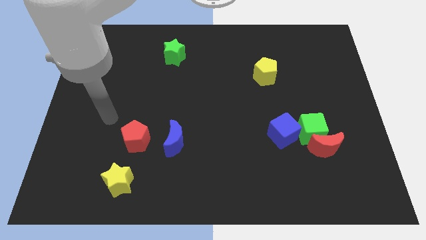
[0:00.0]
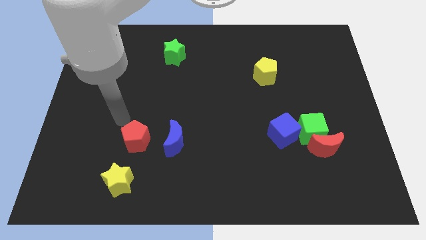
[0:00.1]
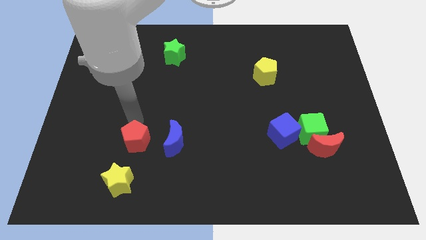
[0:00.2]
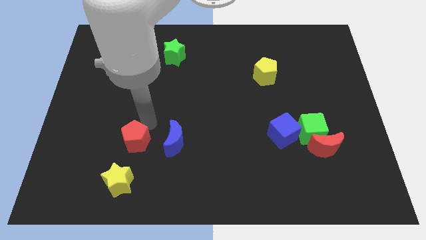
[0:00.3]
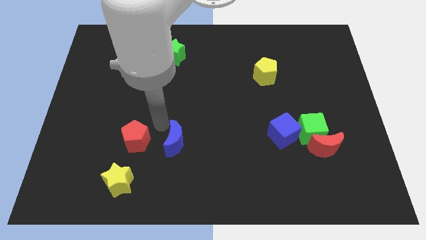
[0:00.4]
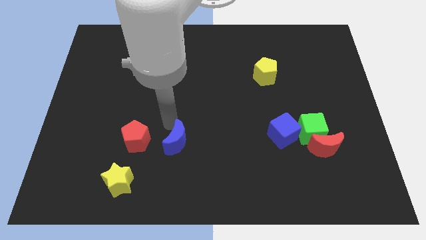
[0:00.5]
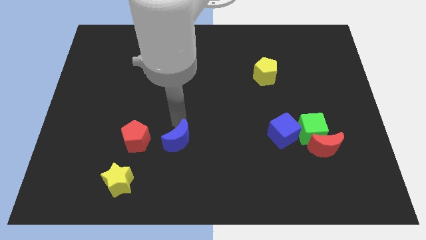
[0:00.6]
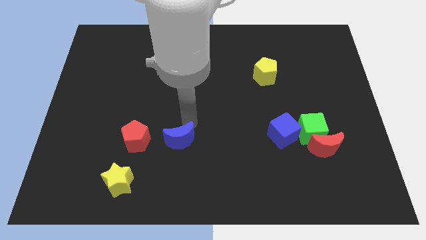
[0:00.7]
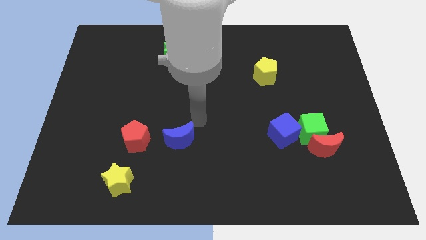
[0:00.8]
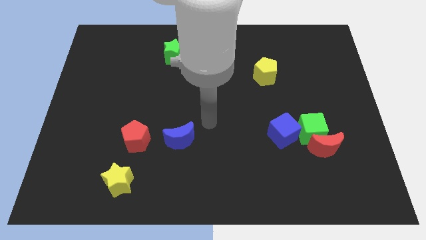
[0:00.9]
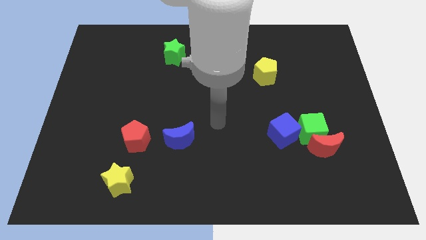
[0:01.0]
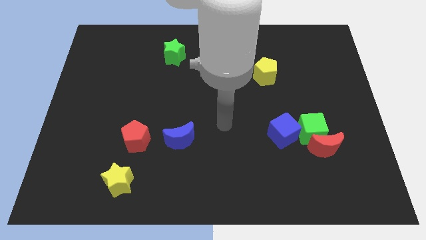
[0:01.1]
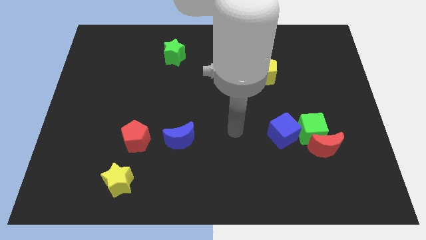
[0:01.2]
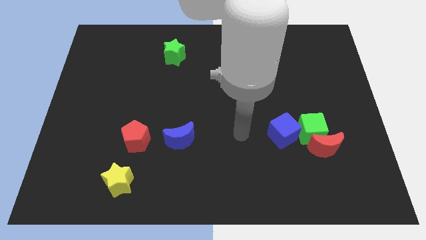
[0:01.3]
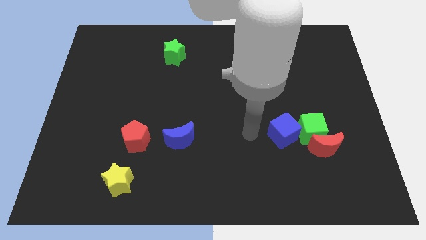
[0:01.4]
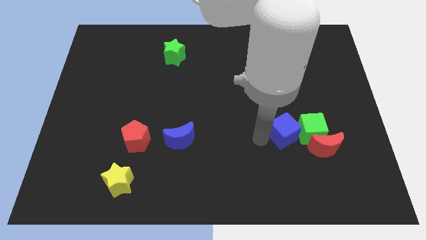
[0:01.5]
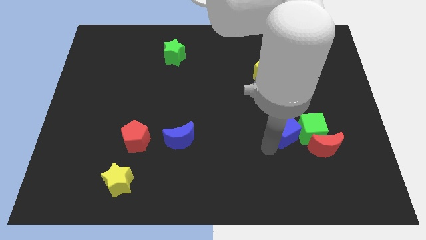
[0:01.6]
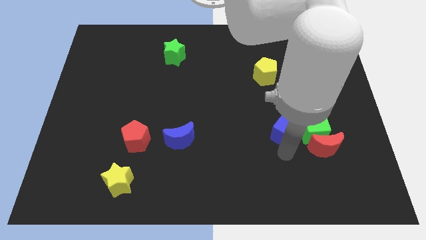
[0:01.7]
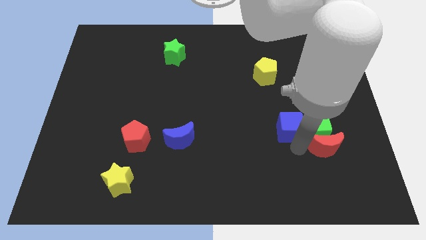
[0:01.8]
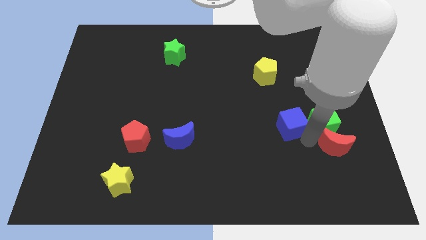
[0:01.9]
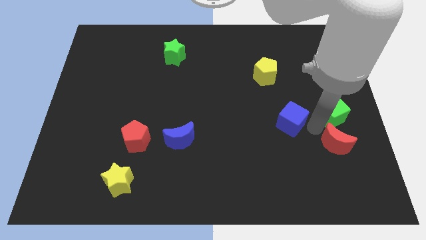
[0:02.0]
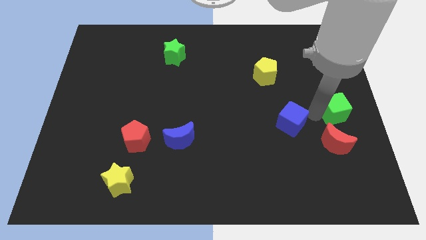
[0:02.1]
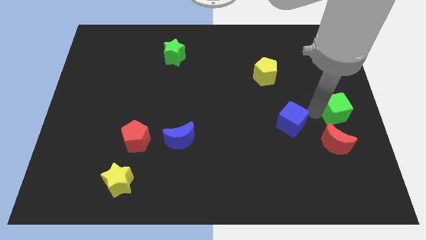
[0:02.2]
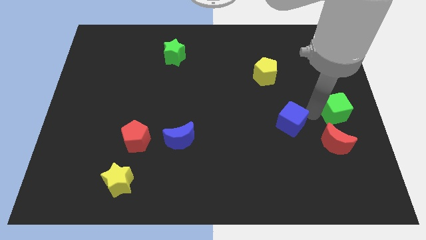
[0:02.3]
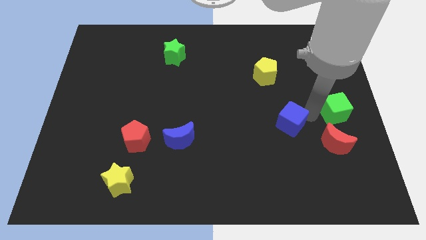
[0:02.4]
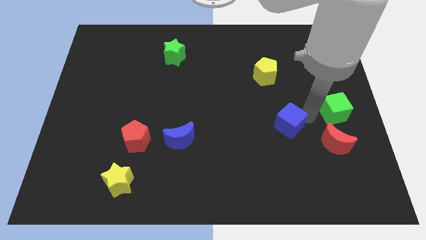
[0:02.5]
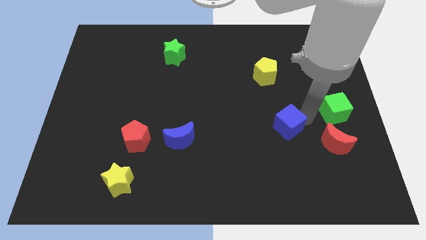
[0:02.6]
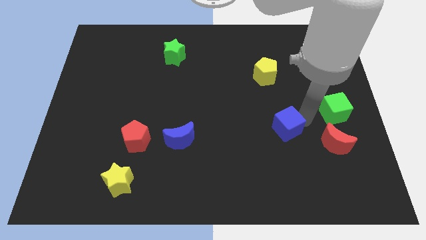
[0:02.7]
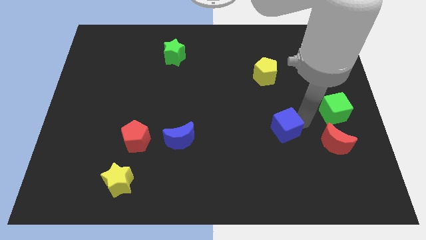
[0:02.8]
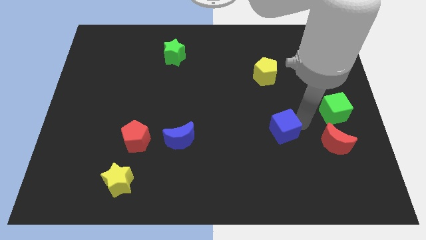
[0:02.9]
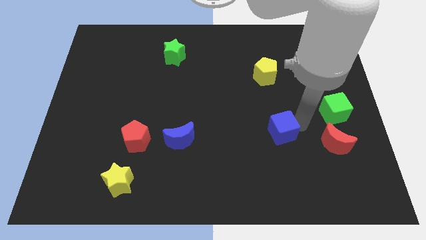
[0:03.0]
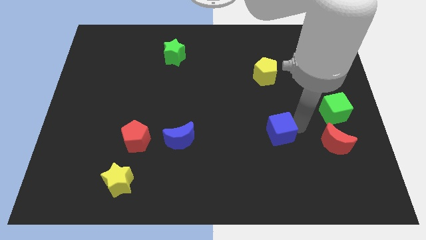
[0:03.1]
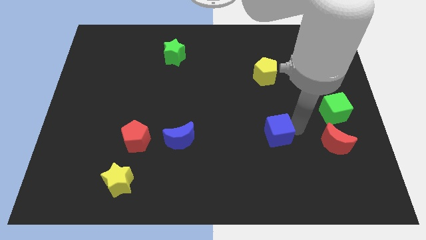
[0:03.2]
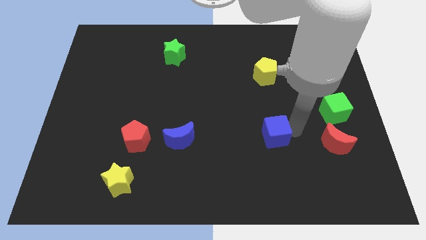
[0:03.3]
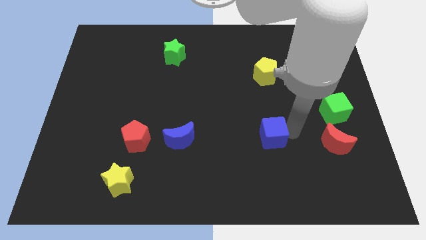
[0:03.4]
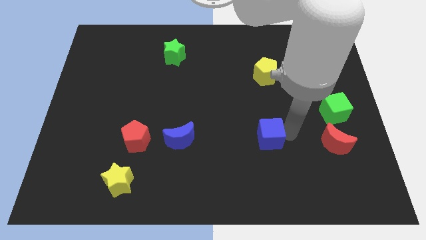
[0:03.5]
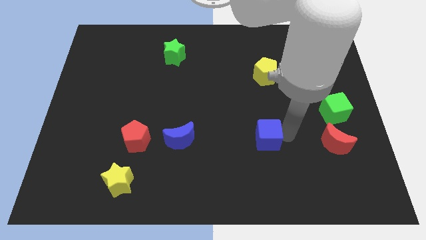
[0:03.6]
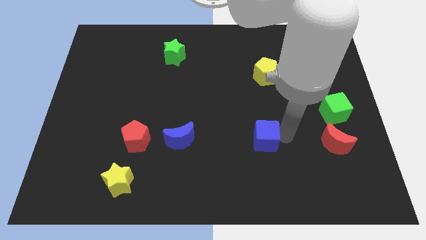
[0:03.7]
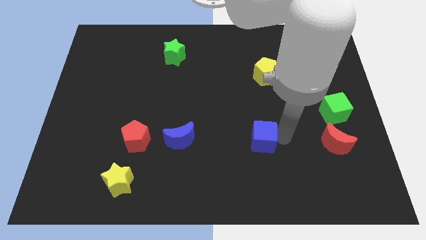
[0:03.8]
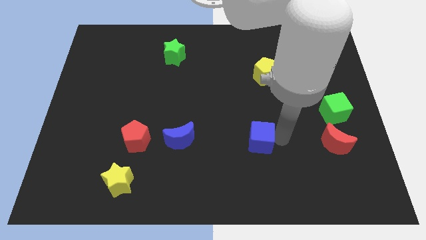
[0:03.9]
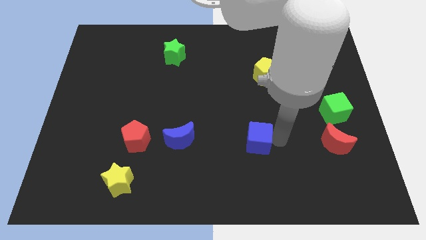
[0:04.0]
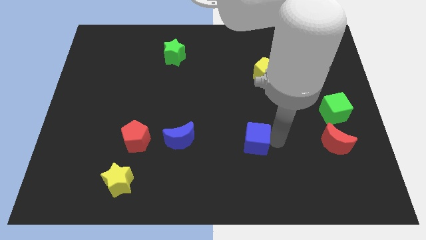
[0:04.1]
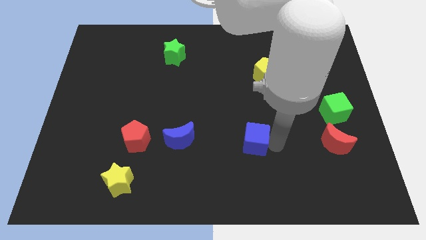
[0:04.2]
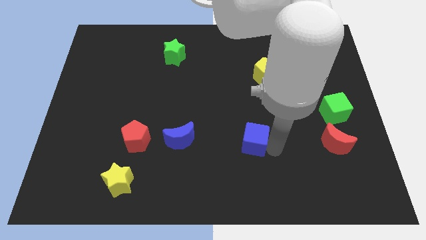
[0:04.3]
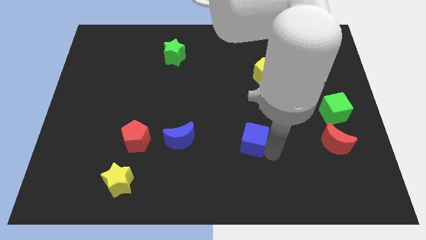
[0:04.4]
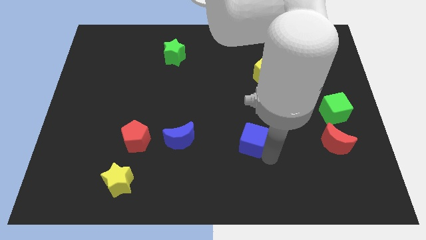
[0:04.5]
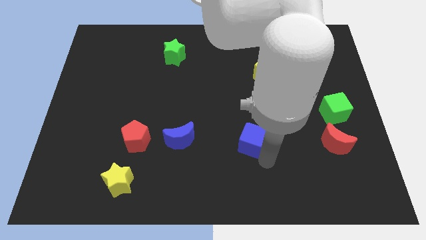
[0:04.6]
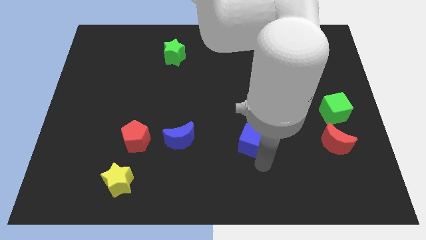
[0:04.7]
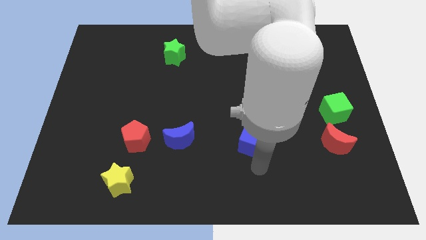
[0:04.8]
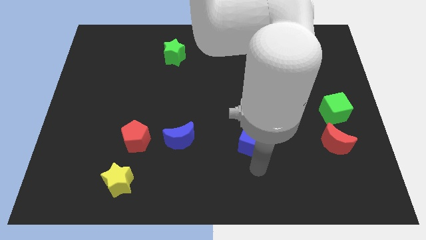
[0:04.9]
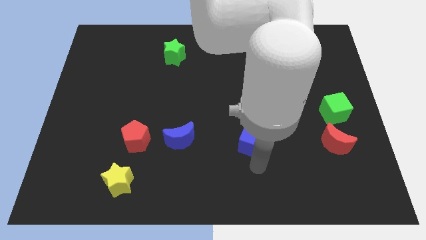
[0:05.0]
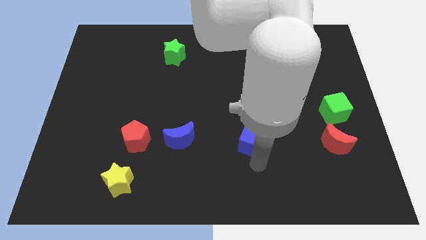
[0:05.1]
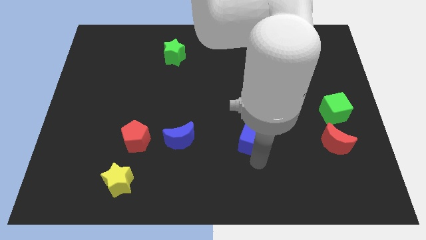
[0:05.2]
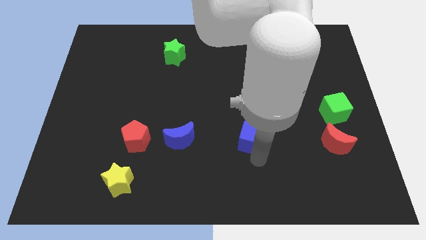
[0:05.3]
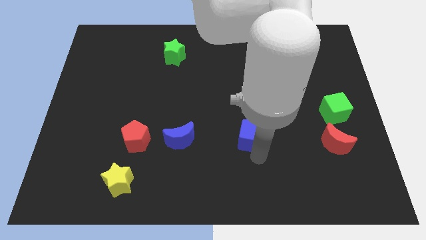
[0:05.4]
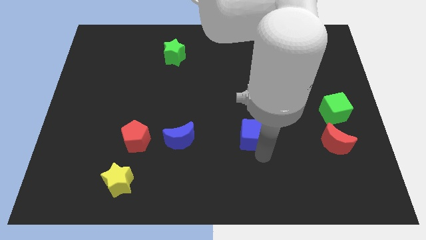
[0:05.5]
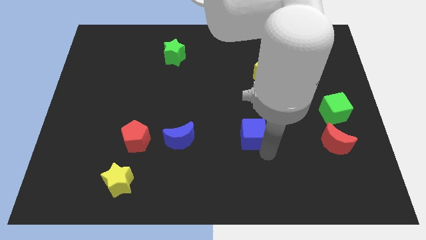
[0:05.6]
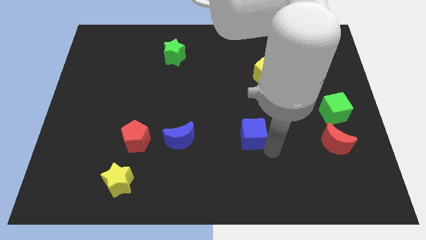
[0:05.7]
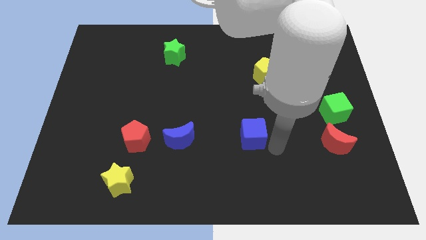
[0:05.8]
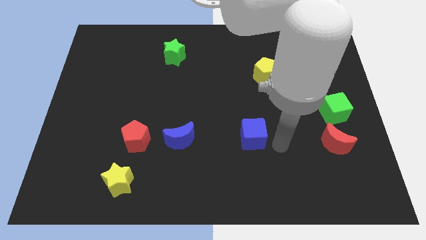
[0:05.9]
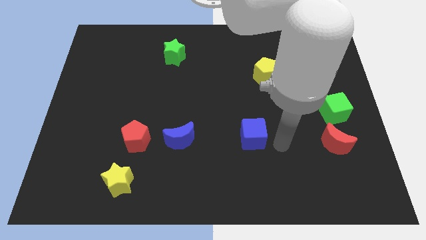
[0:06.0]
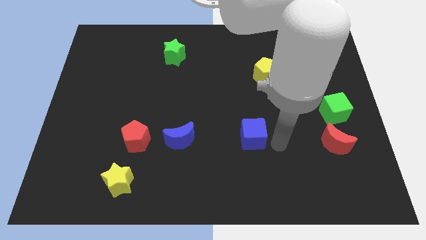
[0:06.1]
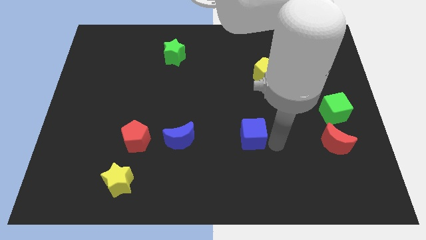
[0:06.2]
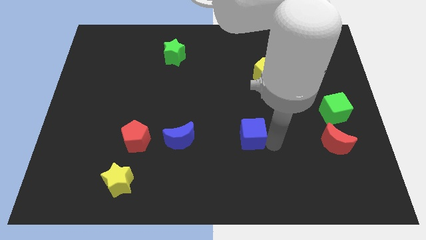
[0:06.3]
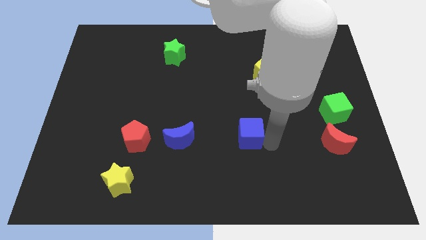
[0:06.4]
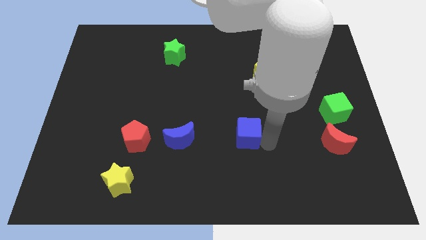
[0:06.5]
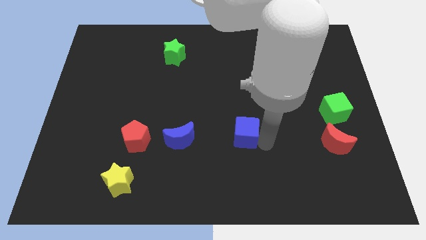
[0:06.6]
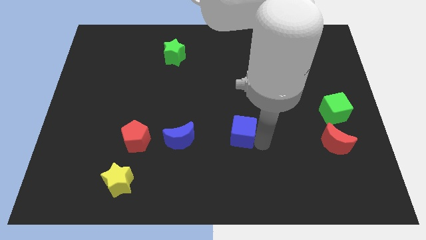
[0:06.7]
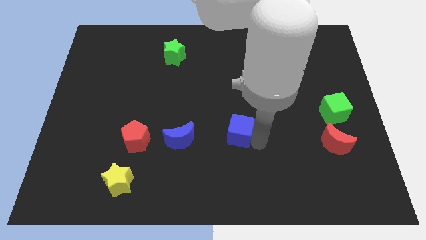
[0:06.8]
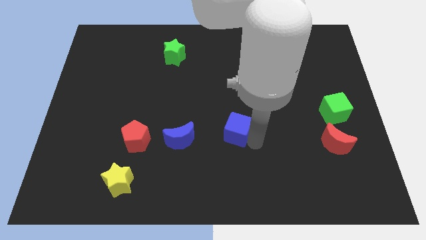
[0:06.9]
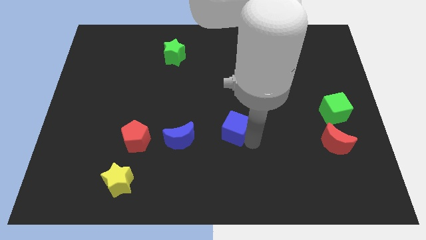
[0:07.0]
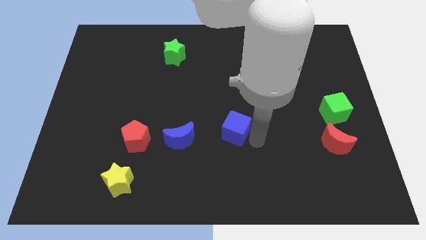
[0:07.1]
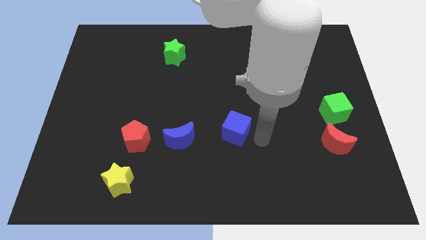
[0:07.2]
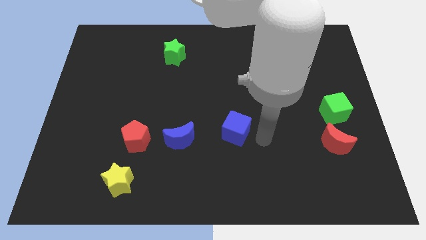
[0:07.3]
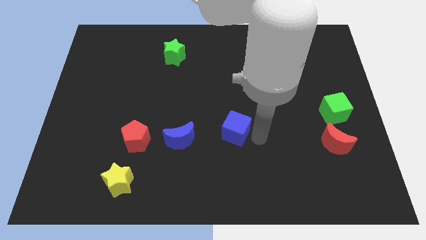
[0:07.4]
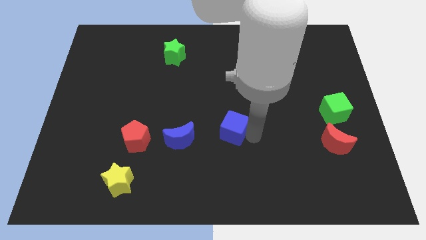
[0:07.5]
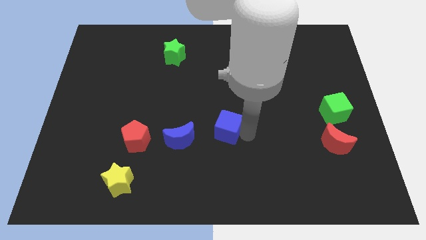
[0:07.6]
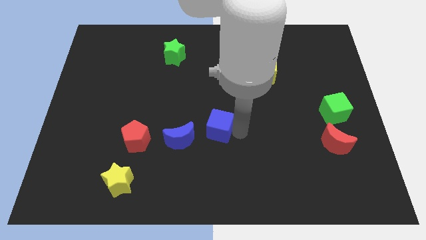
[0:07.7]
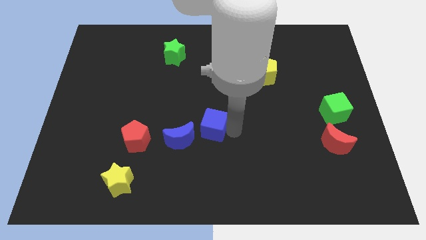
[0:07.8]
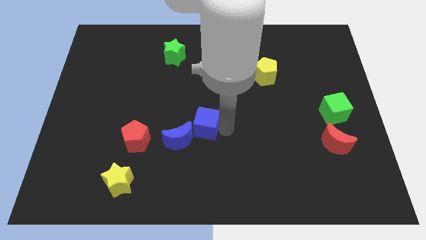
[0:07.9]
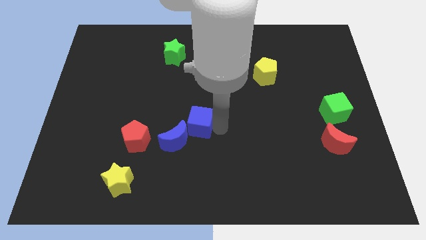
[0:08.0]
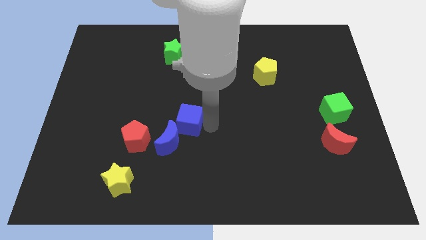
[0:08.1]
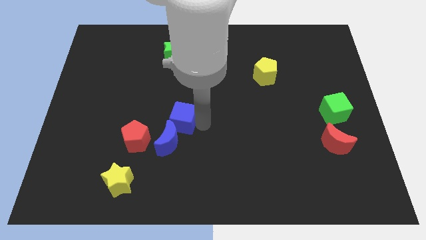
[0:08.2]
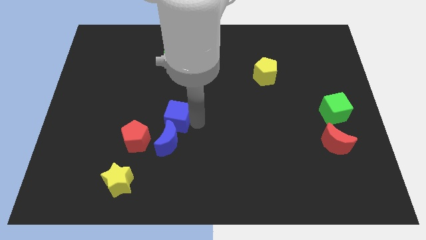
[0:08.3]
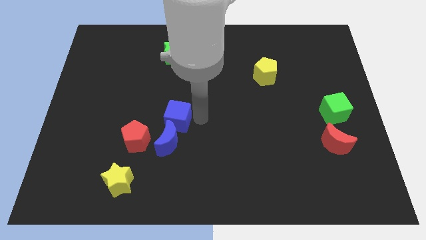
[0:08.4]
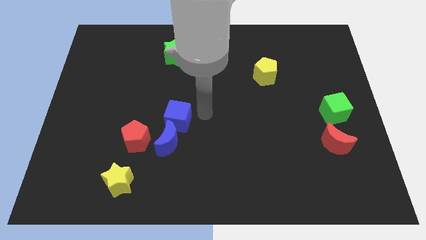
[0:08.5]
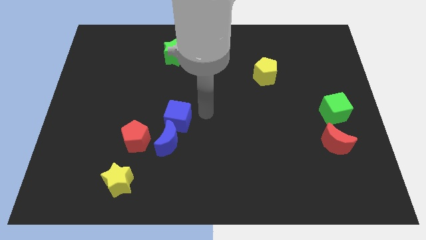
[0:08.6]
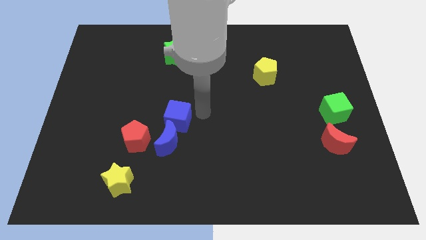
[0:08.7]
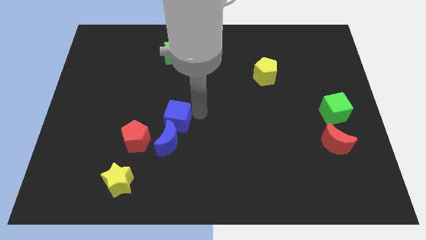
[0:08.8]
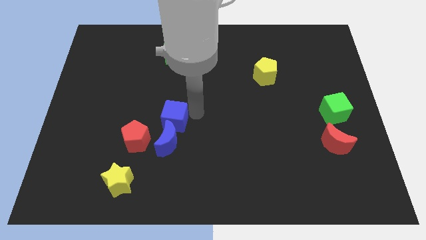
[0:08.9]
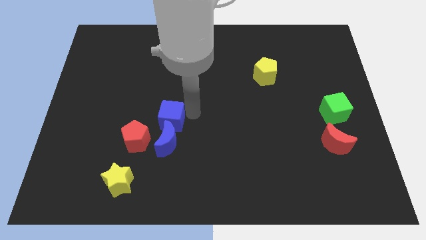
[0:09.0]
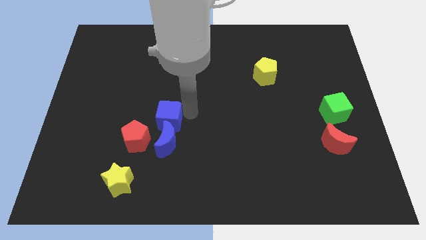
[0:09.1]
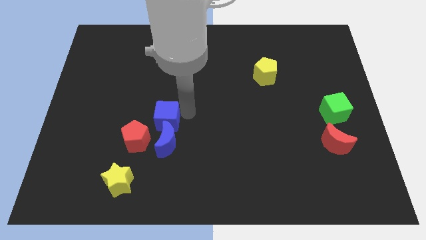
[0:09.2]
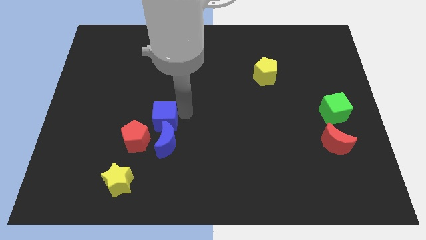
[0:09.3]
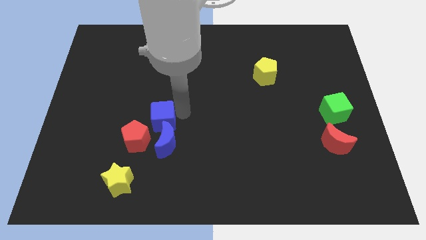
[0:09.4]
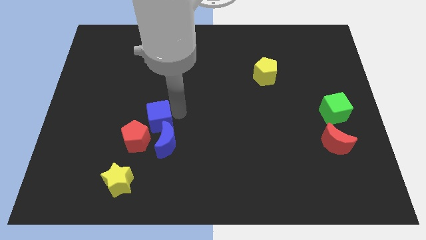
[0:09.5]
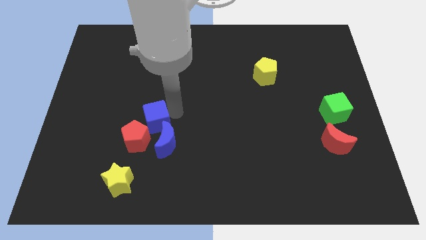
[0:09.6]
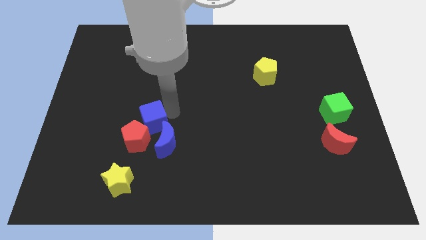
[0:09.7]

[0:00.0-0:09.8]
put the blue cube towards the red pentagon
